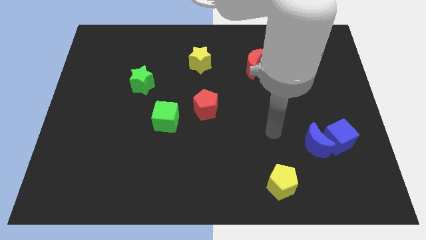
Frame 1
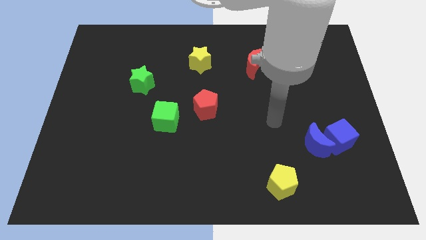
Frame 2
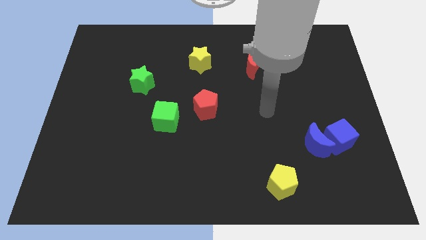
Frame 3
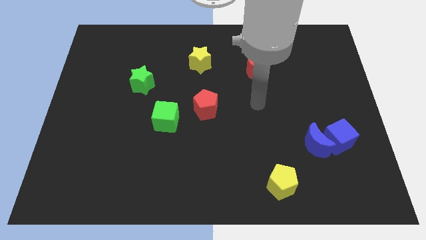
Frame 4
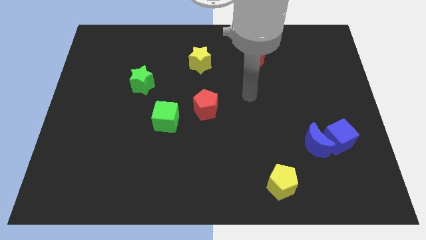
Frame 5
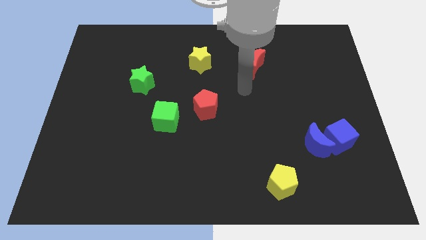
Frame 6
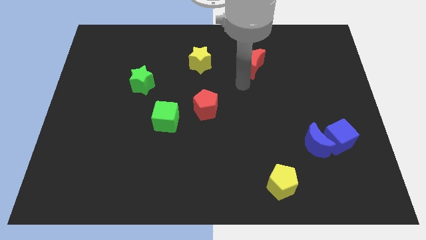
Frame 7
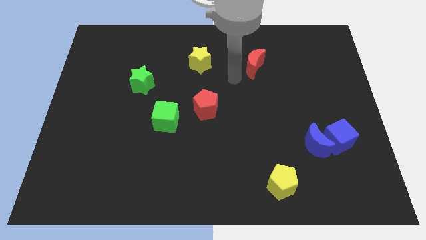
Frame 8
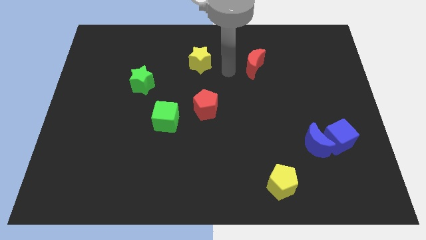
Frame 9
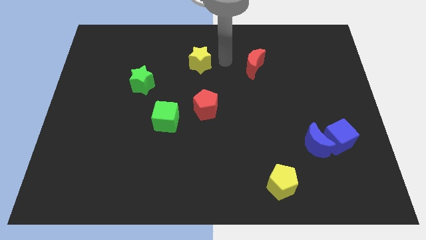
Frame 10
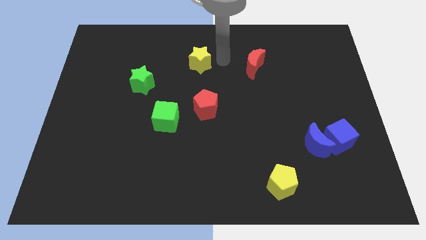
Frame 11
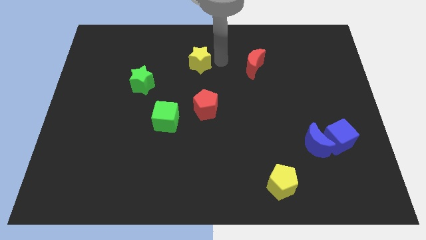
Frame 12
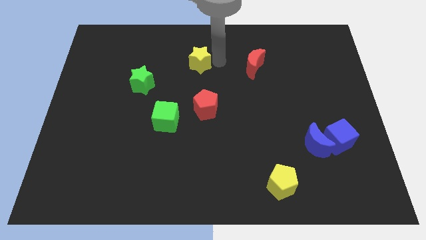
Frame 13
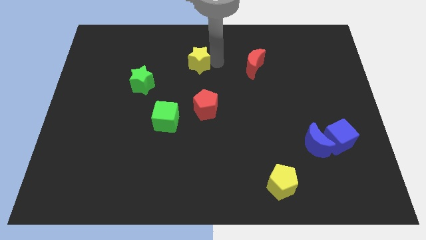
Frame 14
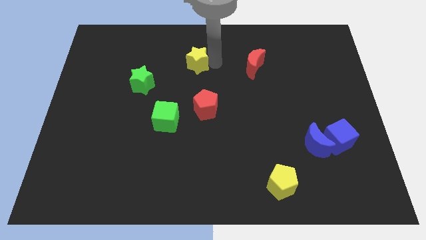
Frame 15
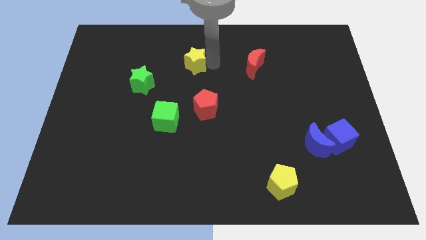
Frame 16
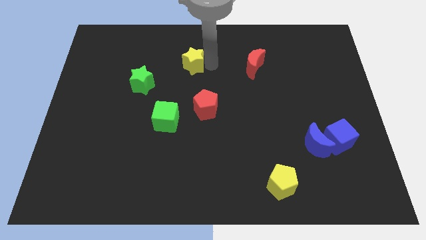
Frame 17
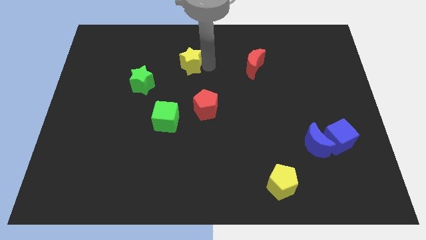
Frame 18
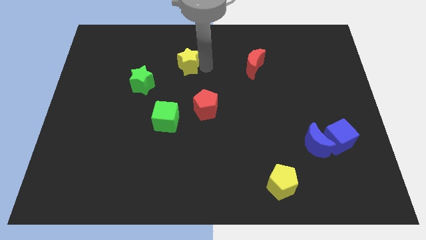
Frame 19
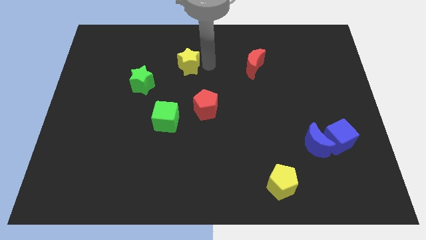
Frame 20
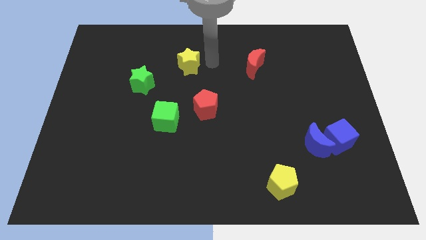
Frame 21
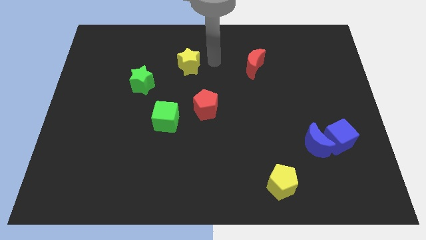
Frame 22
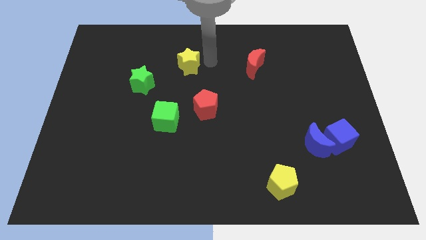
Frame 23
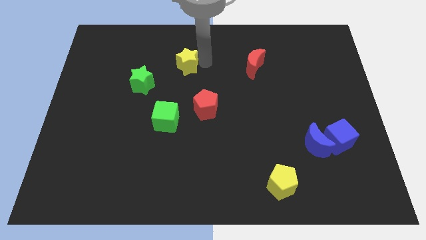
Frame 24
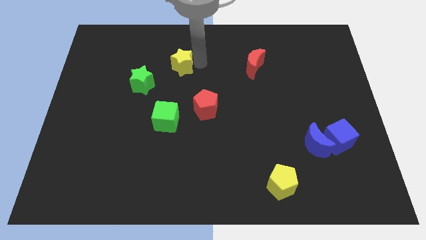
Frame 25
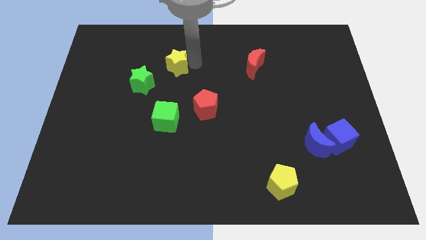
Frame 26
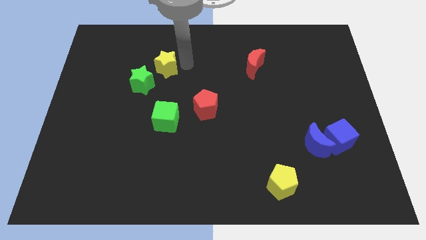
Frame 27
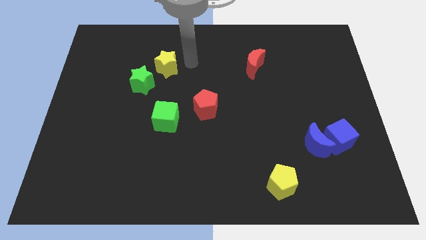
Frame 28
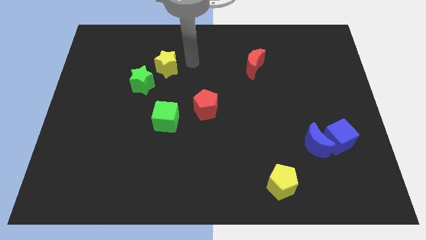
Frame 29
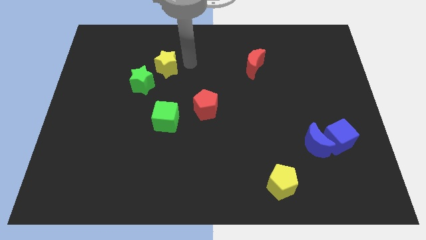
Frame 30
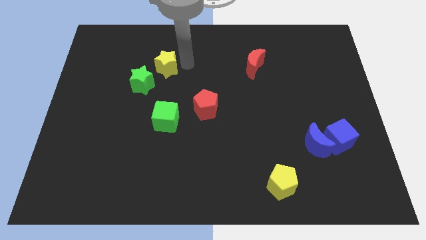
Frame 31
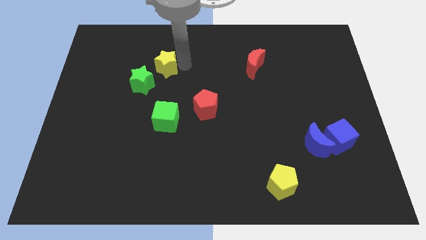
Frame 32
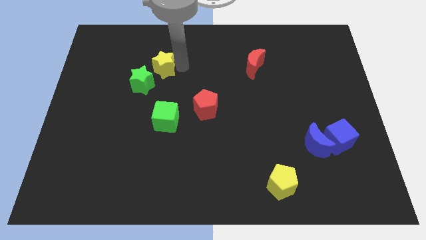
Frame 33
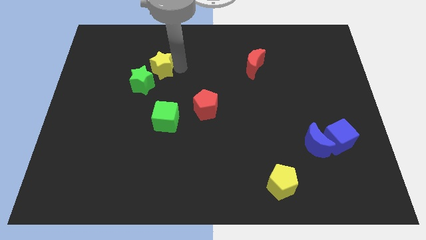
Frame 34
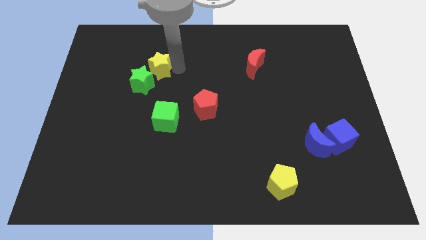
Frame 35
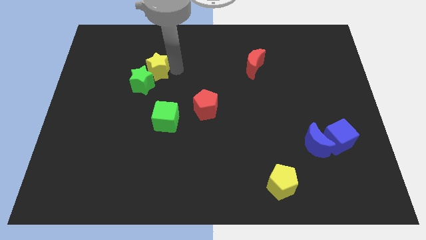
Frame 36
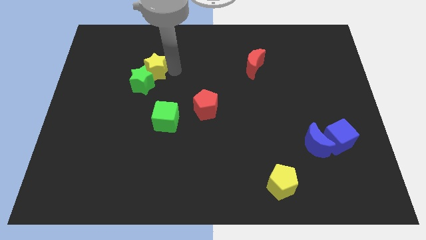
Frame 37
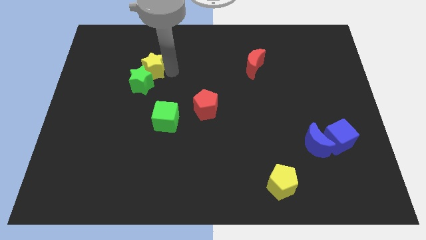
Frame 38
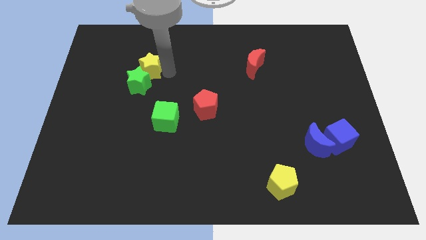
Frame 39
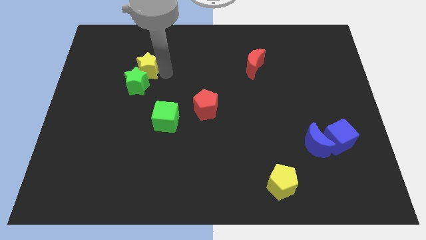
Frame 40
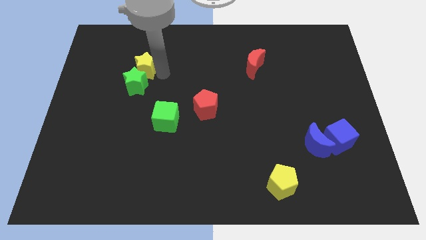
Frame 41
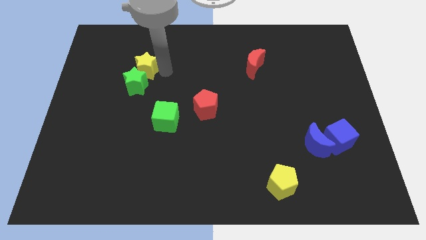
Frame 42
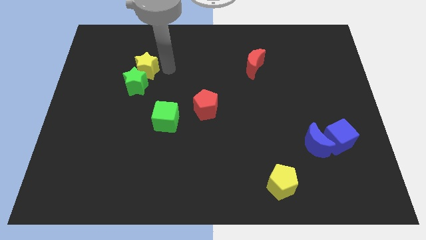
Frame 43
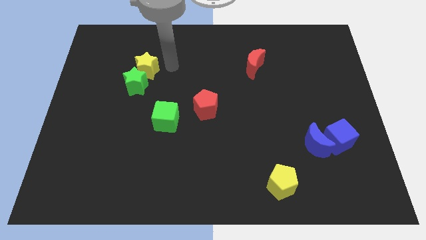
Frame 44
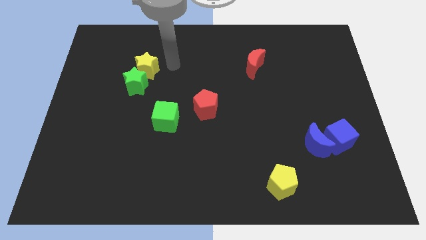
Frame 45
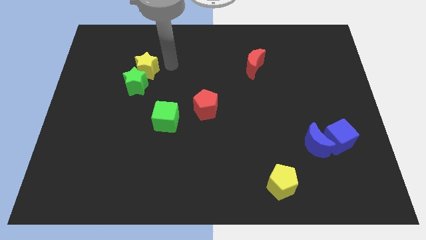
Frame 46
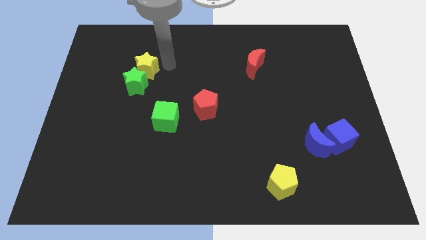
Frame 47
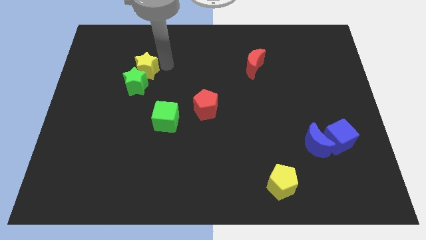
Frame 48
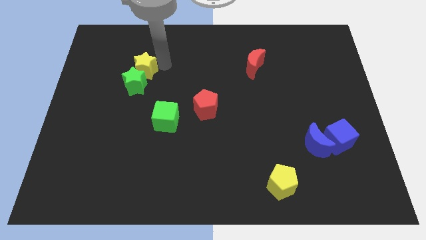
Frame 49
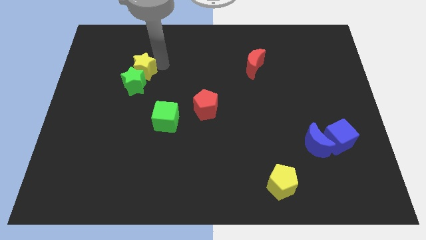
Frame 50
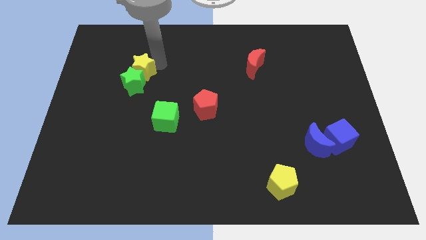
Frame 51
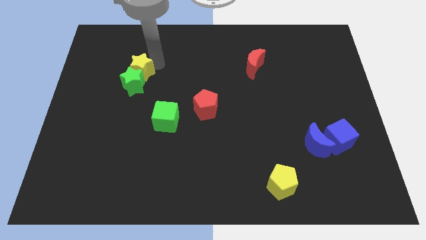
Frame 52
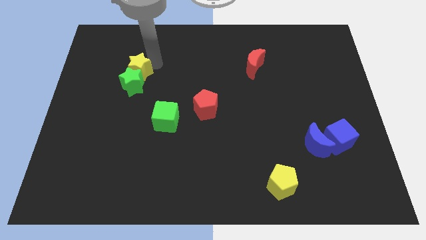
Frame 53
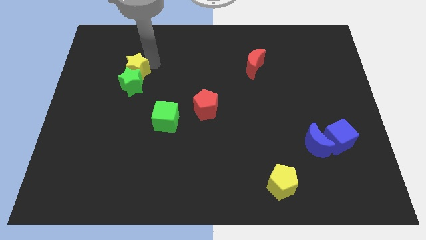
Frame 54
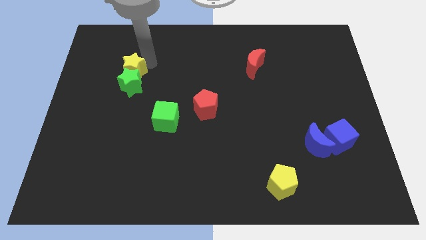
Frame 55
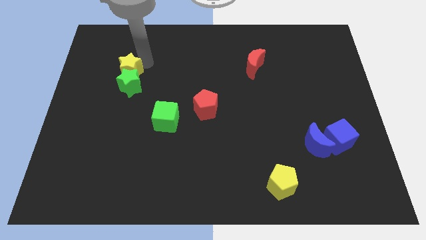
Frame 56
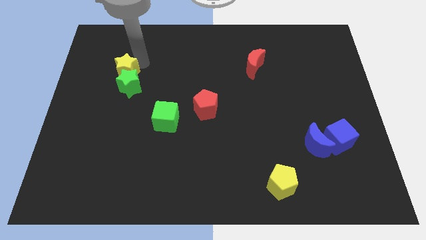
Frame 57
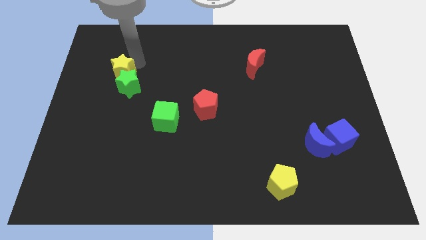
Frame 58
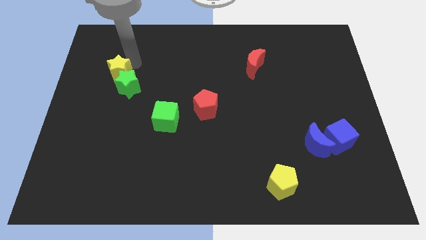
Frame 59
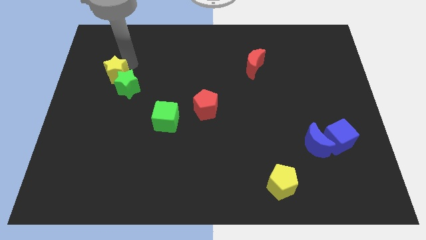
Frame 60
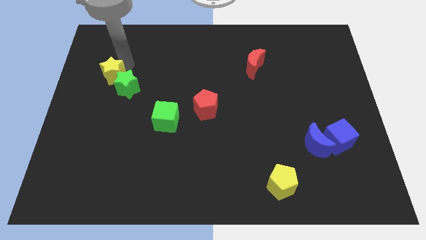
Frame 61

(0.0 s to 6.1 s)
put the yellow star just left of the green star

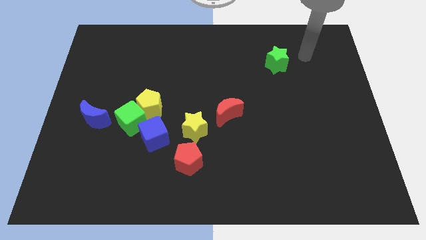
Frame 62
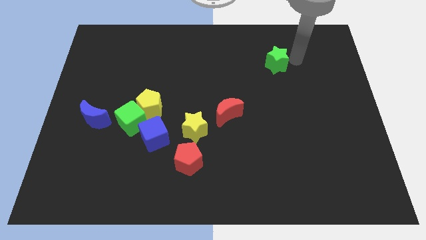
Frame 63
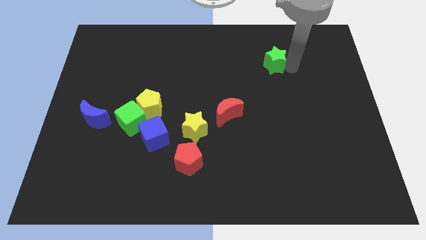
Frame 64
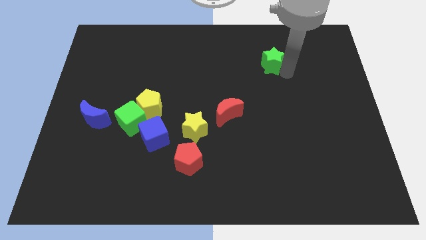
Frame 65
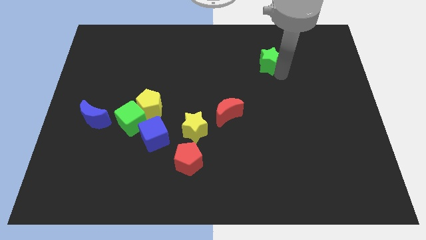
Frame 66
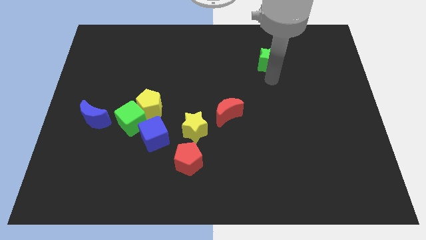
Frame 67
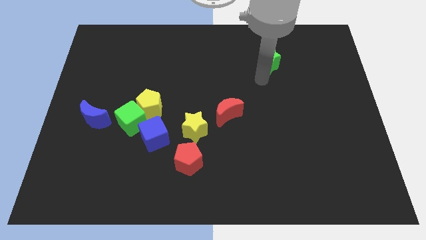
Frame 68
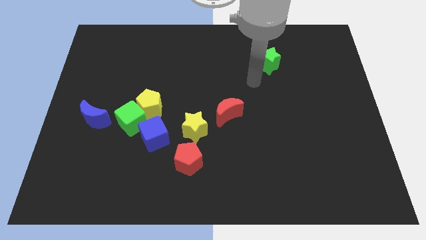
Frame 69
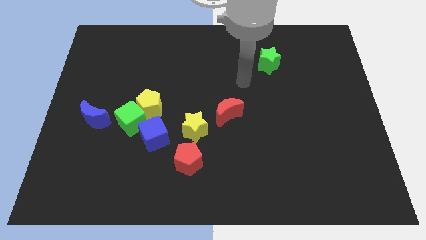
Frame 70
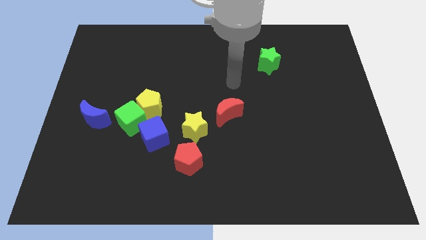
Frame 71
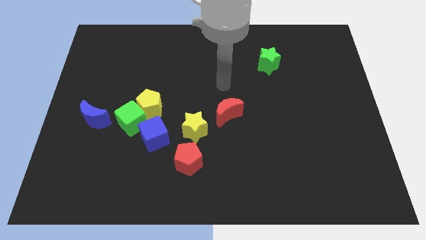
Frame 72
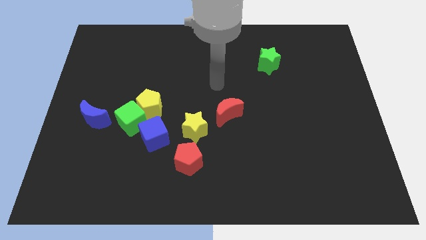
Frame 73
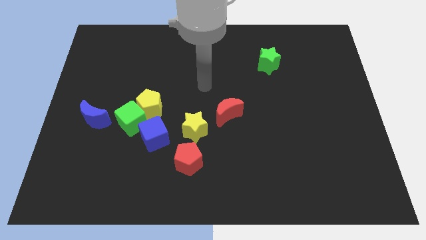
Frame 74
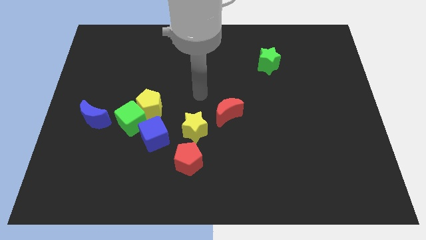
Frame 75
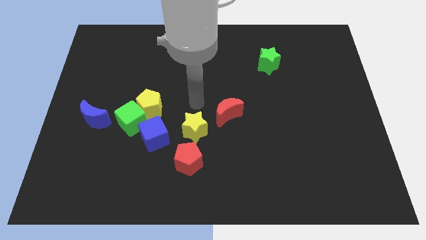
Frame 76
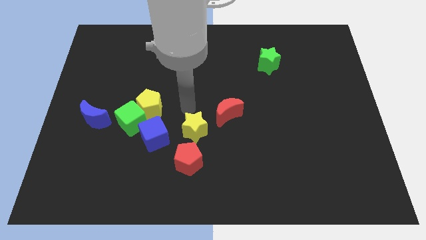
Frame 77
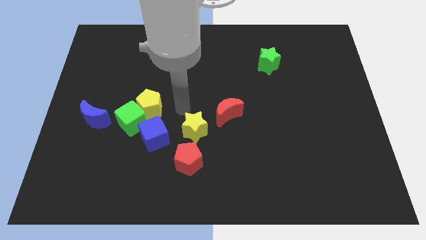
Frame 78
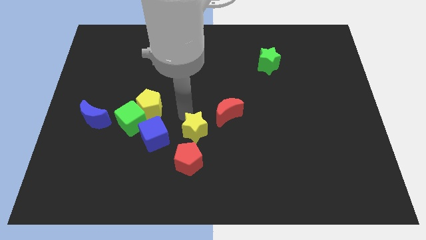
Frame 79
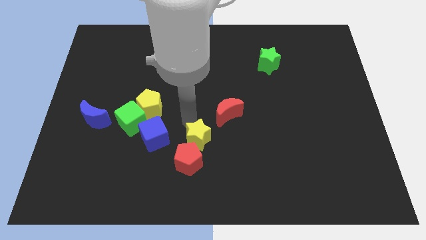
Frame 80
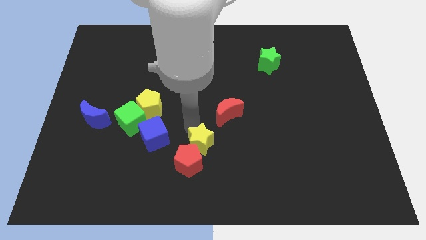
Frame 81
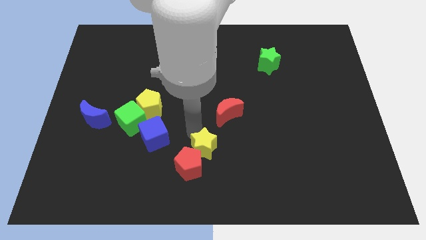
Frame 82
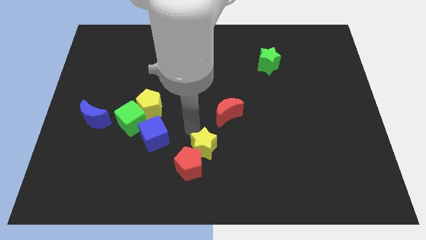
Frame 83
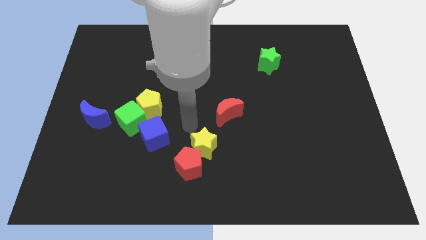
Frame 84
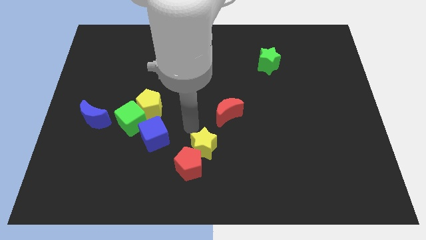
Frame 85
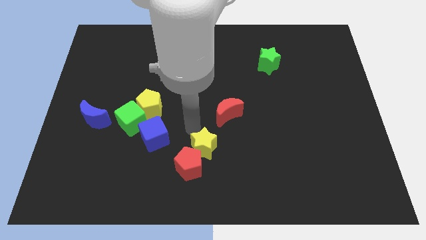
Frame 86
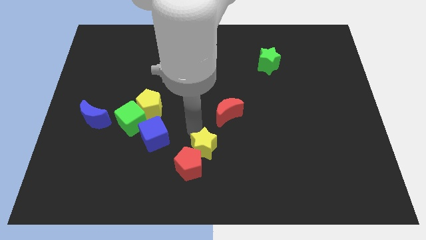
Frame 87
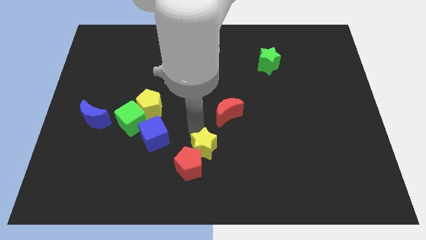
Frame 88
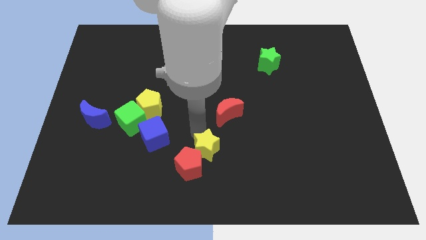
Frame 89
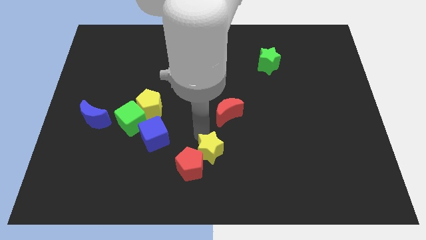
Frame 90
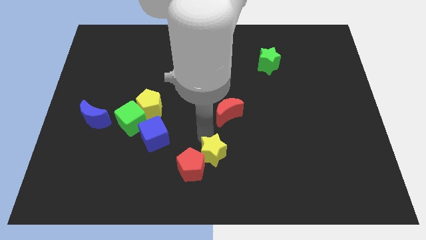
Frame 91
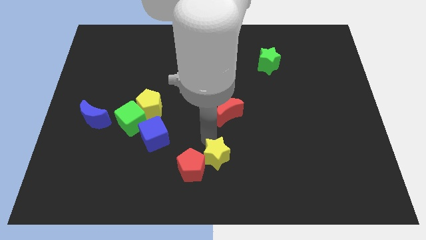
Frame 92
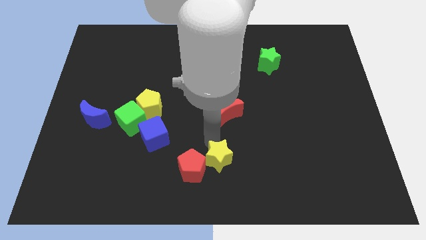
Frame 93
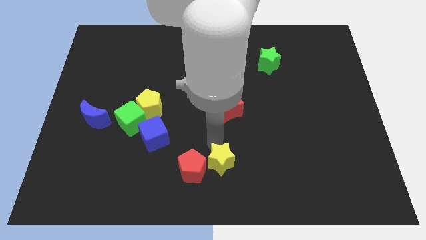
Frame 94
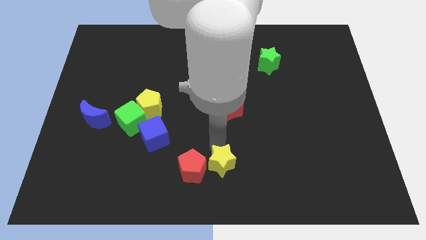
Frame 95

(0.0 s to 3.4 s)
push the yellow star to the bottom right side of the red pentagon
